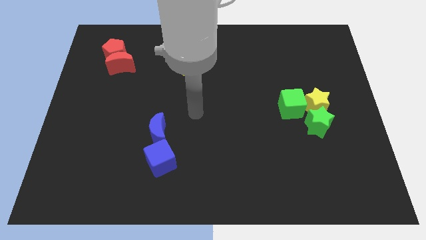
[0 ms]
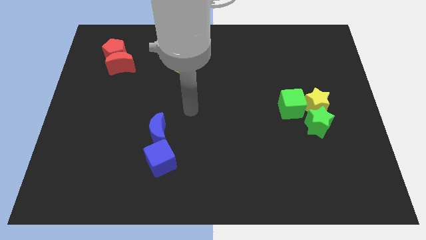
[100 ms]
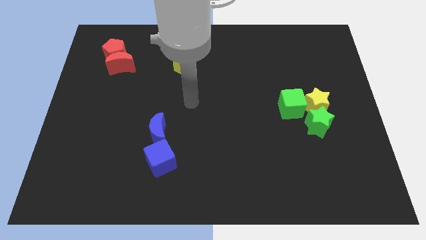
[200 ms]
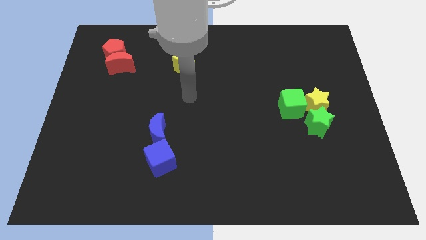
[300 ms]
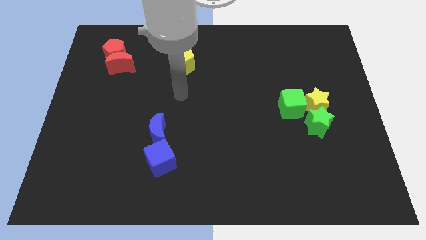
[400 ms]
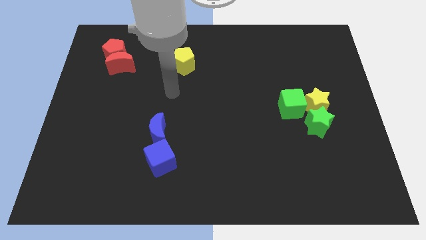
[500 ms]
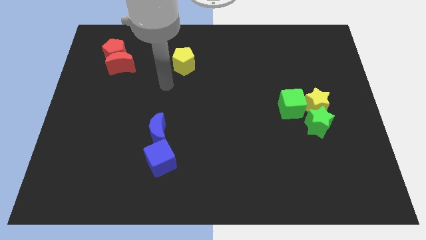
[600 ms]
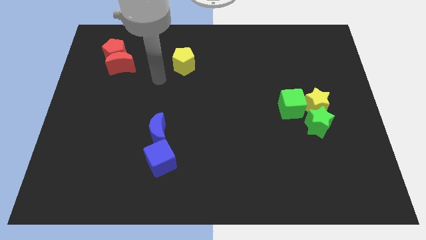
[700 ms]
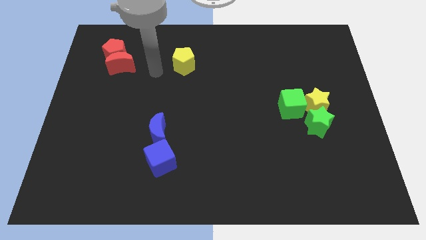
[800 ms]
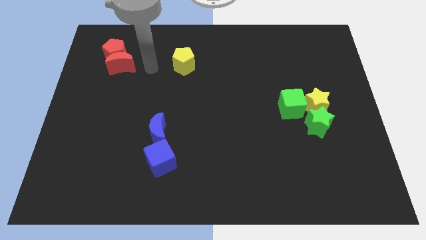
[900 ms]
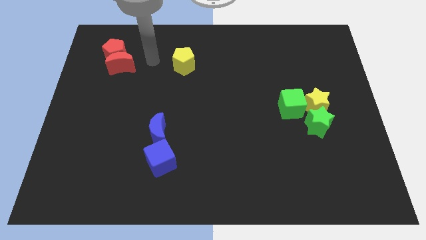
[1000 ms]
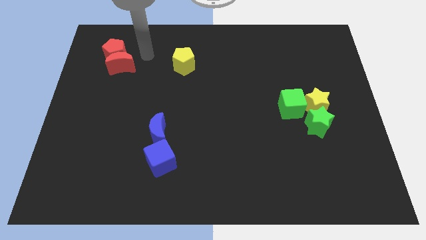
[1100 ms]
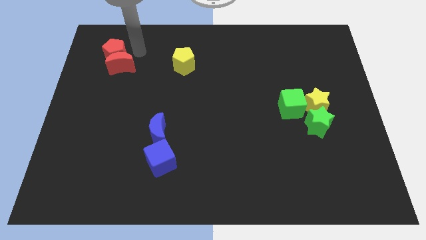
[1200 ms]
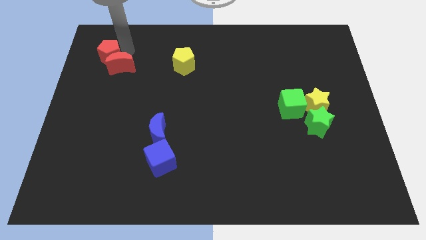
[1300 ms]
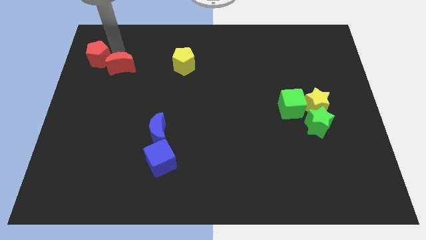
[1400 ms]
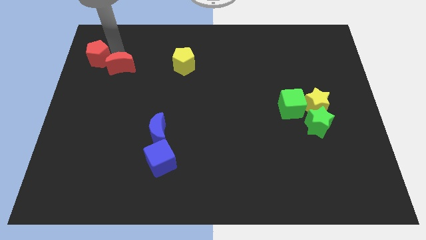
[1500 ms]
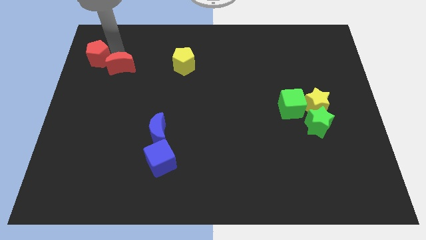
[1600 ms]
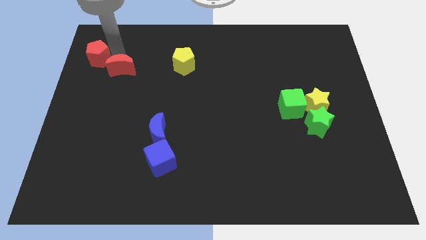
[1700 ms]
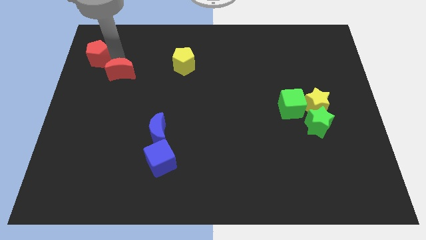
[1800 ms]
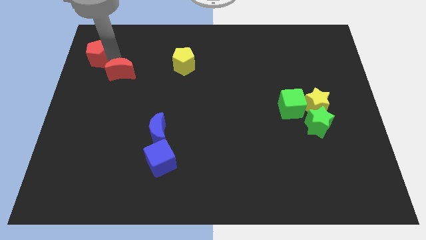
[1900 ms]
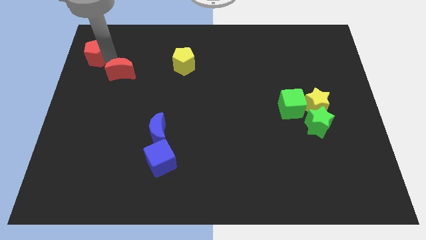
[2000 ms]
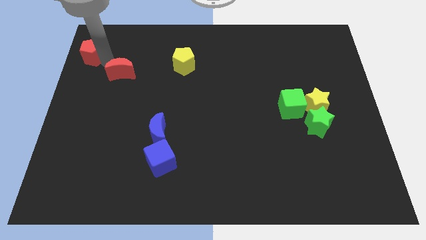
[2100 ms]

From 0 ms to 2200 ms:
pull the red moon apart from the red pentagon

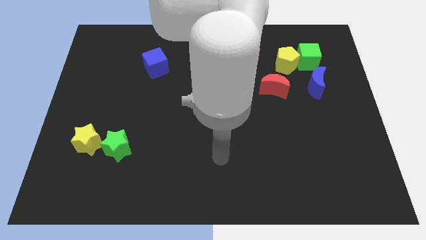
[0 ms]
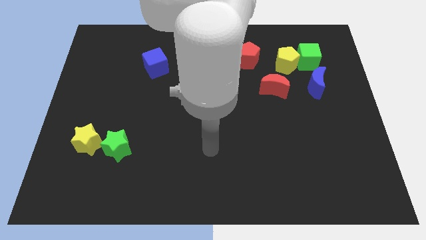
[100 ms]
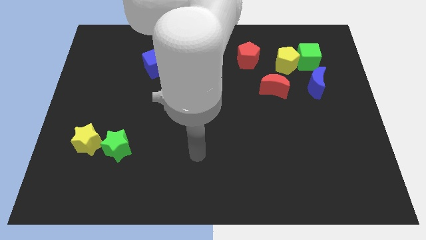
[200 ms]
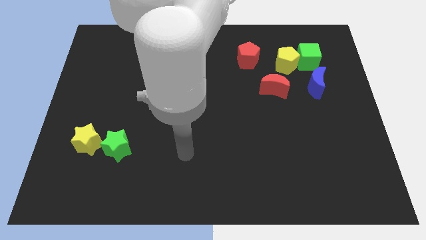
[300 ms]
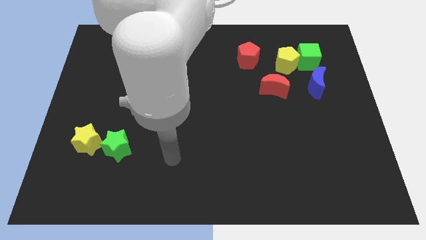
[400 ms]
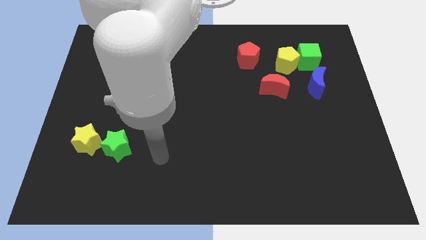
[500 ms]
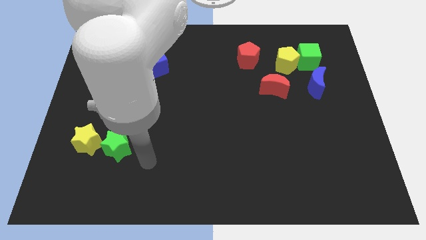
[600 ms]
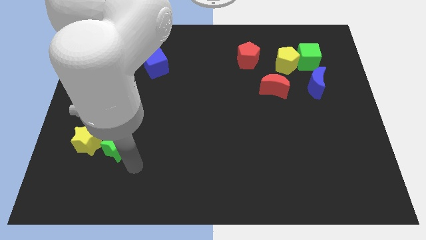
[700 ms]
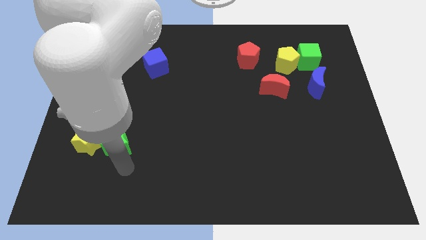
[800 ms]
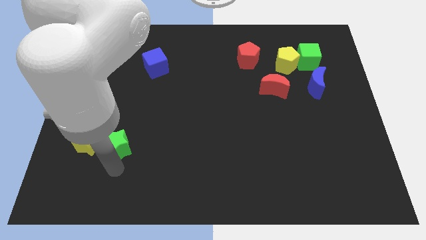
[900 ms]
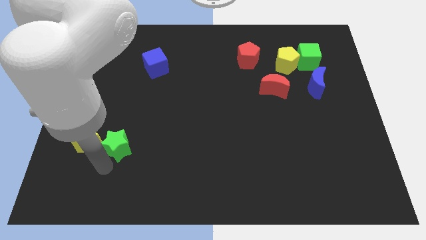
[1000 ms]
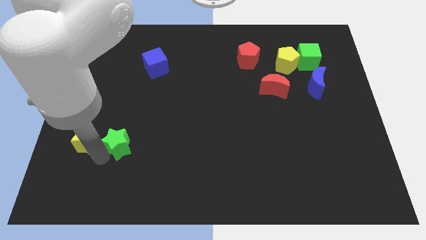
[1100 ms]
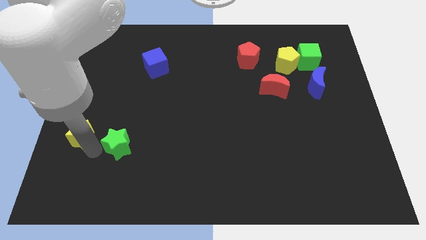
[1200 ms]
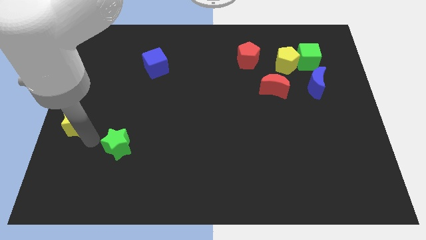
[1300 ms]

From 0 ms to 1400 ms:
separate the green star from the yellow star

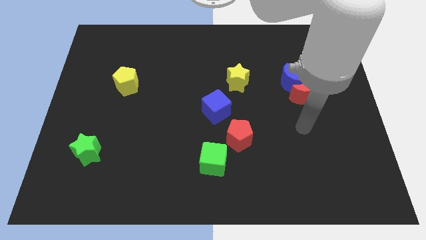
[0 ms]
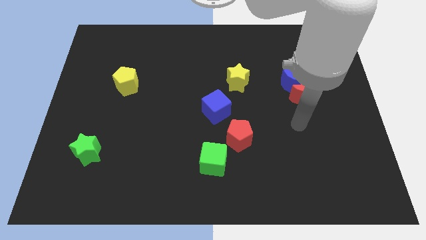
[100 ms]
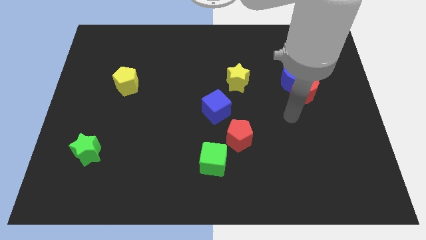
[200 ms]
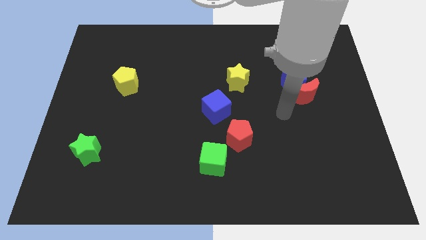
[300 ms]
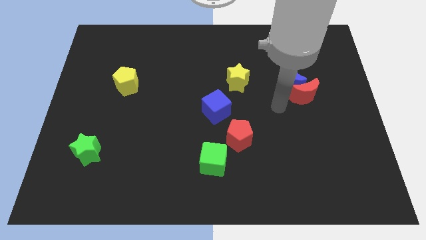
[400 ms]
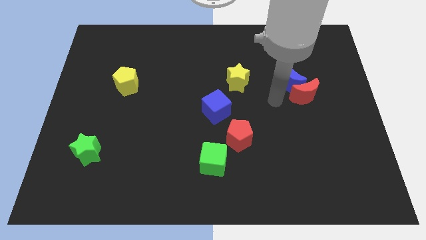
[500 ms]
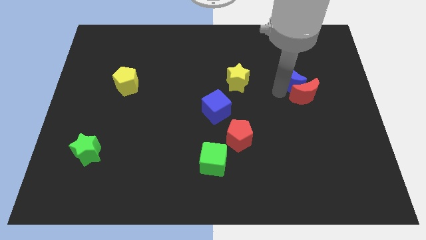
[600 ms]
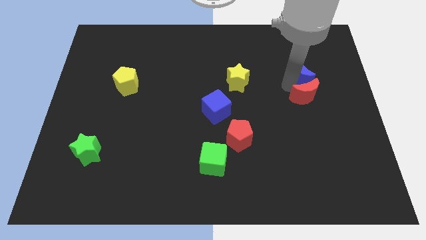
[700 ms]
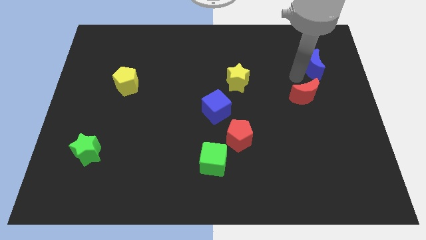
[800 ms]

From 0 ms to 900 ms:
pull the red moon apart from the blue moon

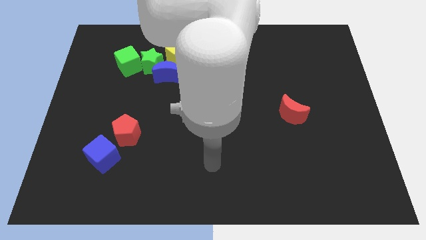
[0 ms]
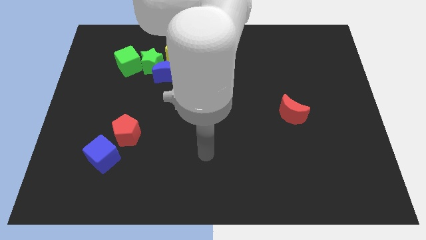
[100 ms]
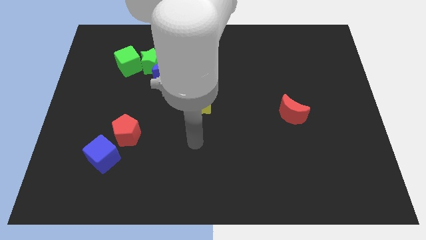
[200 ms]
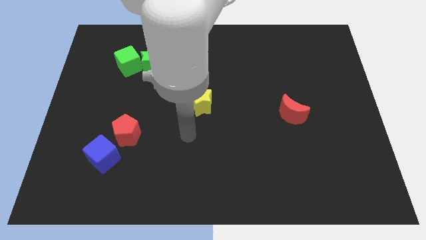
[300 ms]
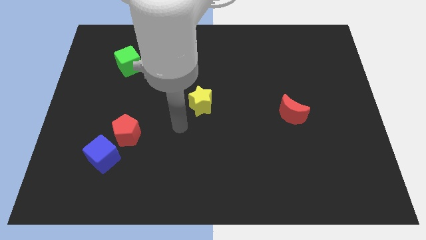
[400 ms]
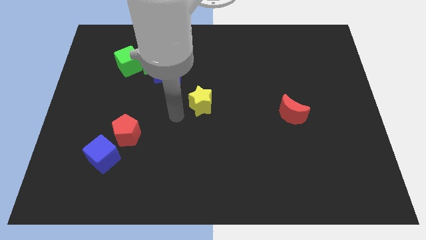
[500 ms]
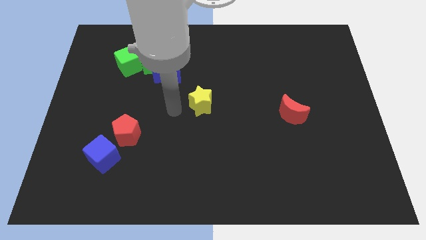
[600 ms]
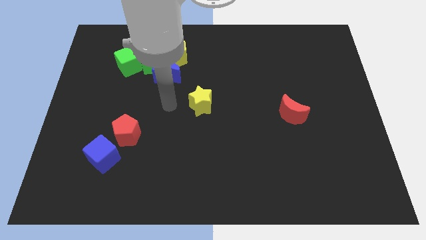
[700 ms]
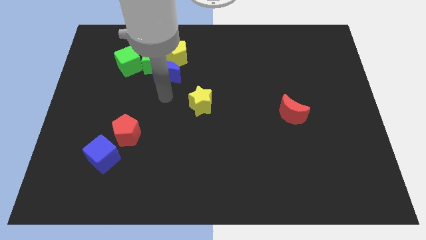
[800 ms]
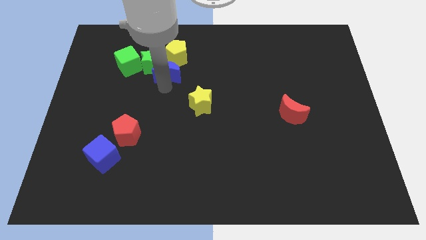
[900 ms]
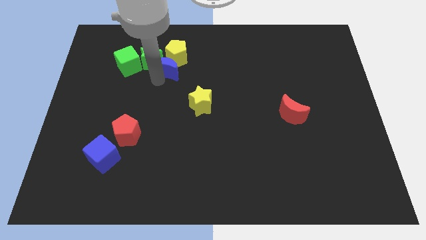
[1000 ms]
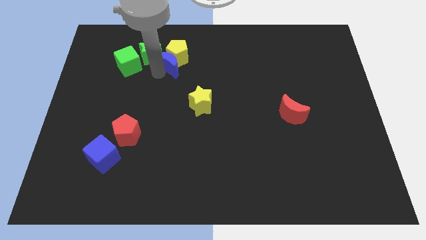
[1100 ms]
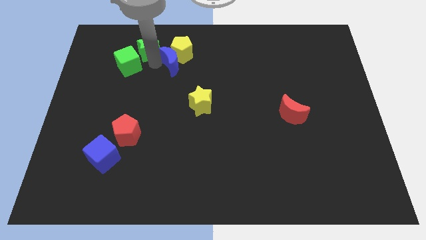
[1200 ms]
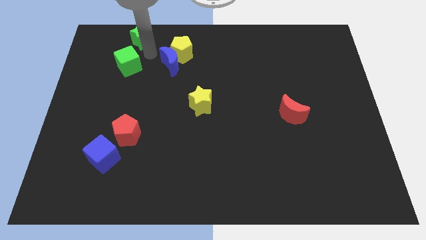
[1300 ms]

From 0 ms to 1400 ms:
pull the green cube apart from the green star

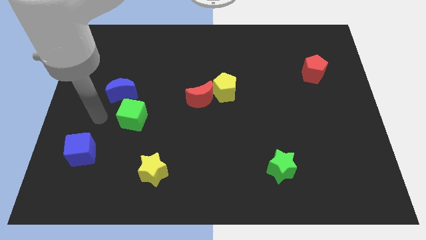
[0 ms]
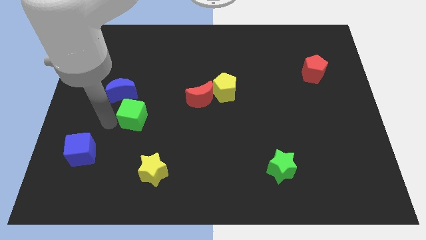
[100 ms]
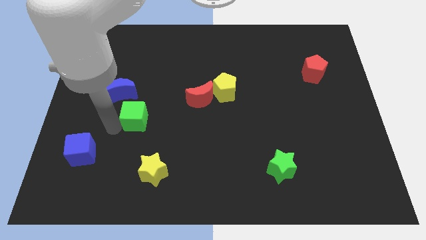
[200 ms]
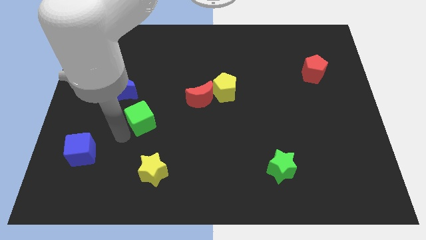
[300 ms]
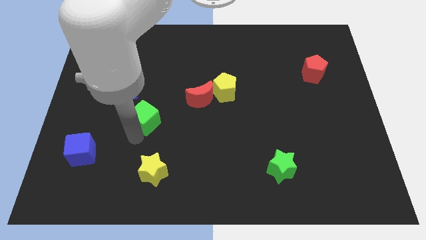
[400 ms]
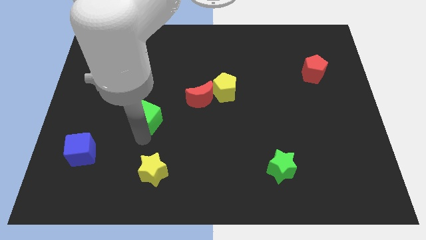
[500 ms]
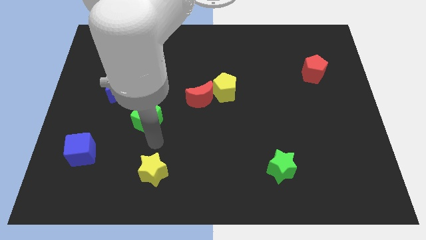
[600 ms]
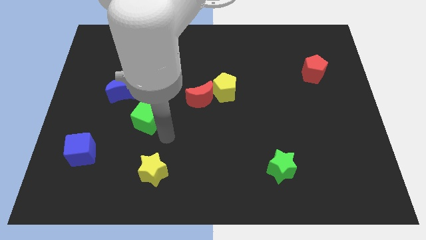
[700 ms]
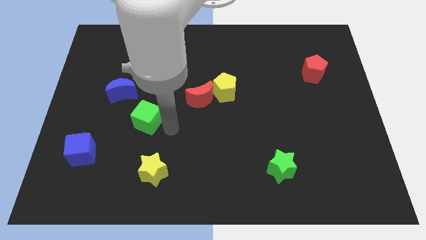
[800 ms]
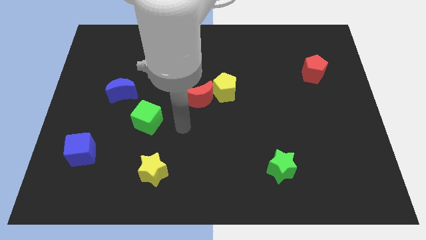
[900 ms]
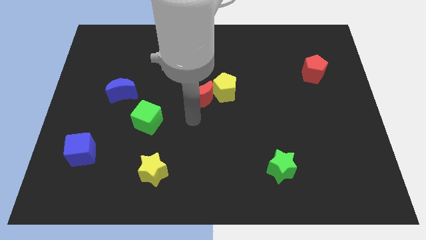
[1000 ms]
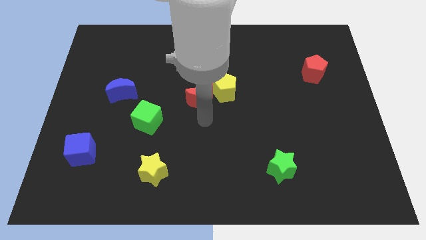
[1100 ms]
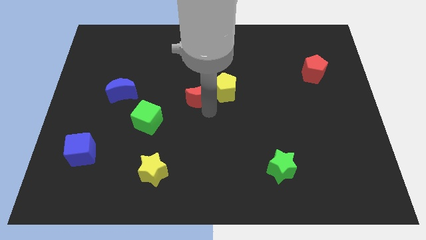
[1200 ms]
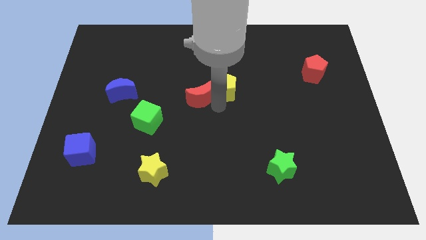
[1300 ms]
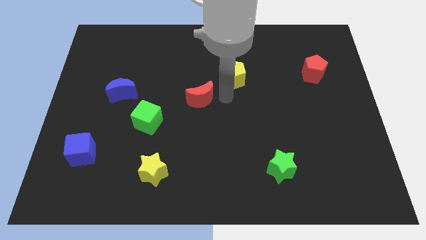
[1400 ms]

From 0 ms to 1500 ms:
move the red moon away from the yellow pentagon

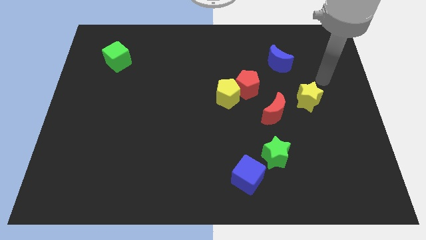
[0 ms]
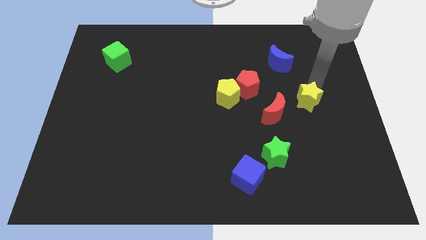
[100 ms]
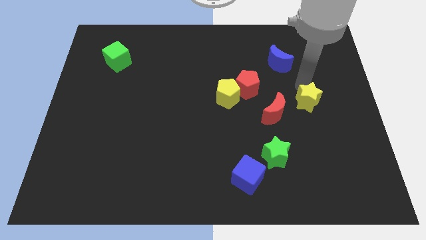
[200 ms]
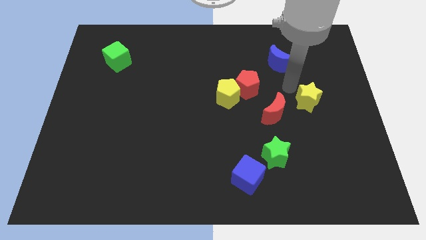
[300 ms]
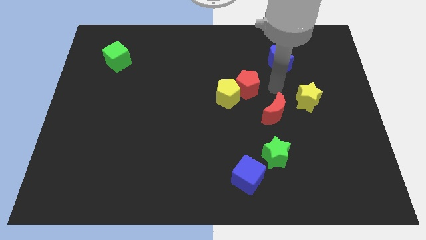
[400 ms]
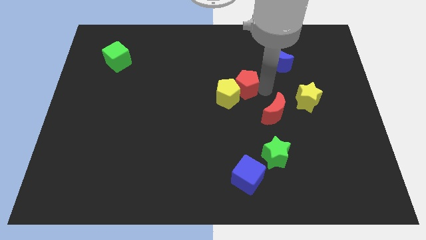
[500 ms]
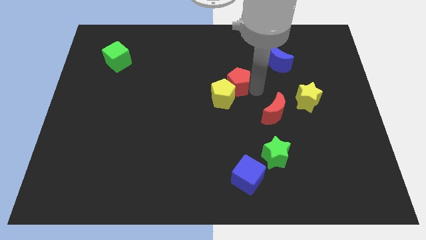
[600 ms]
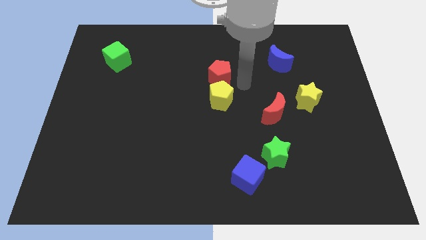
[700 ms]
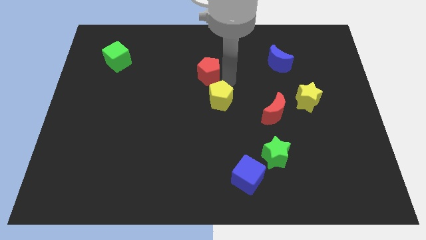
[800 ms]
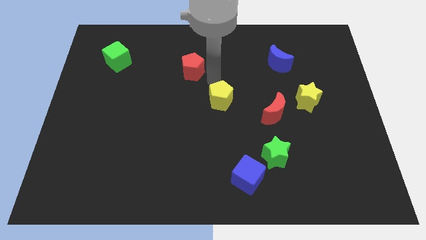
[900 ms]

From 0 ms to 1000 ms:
move the yellow pentagon away from the red pentagon

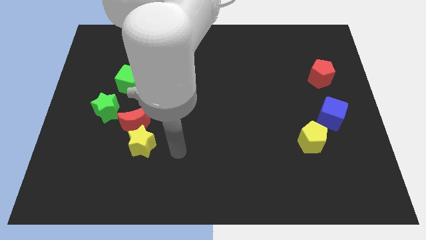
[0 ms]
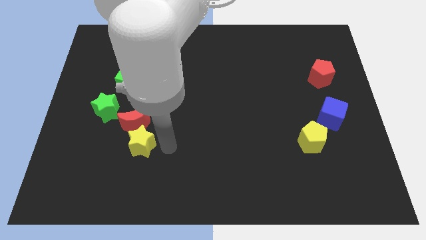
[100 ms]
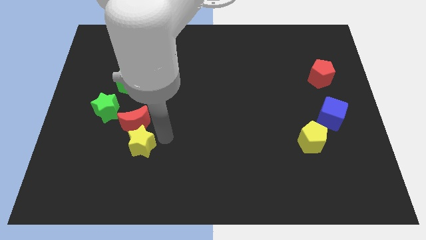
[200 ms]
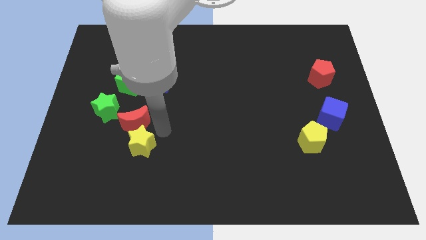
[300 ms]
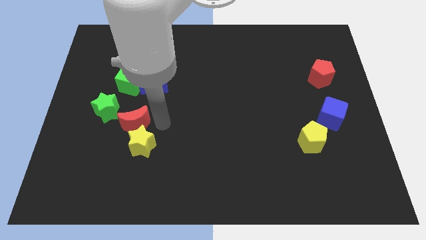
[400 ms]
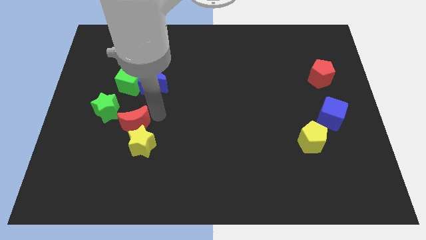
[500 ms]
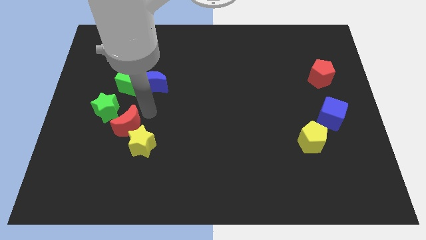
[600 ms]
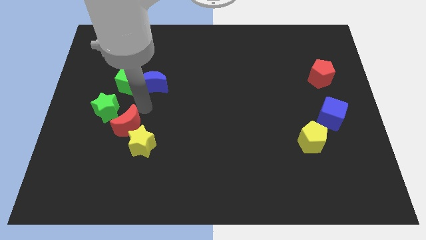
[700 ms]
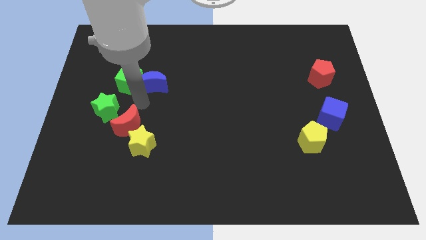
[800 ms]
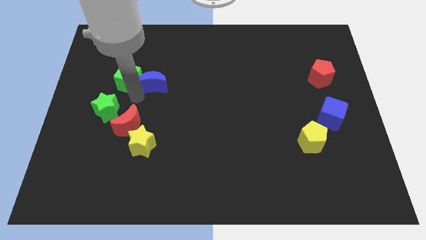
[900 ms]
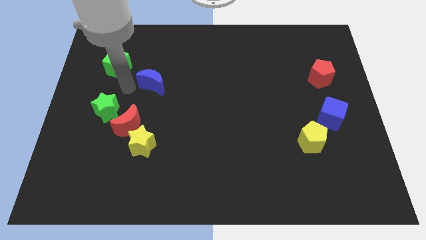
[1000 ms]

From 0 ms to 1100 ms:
pull the blue moon apart from the green cube

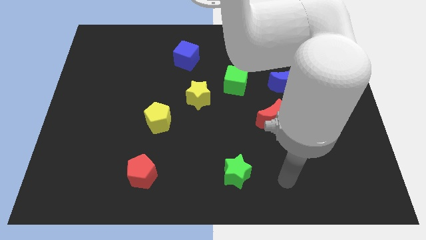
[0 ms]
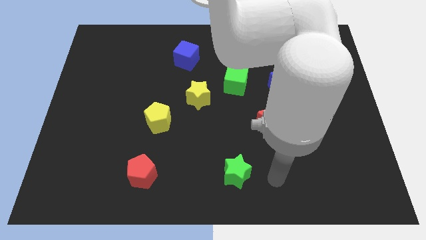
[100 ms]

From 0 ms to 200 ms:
move the green cube away from the yellow star
